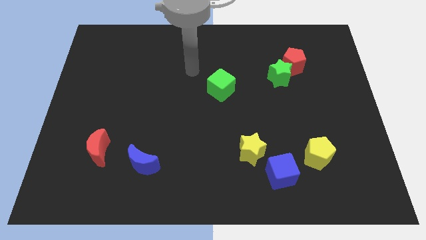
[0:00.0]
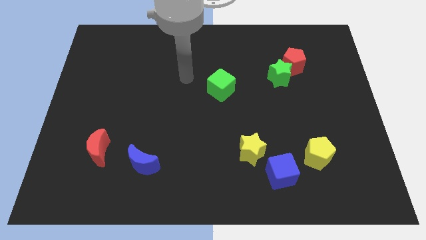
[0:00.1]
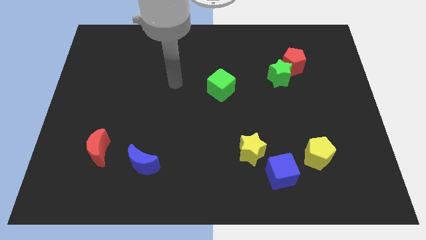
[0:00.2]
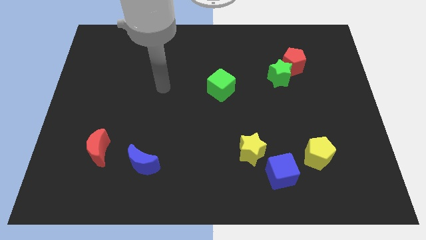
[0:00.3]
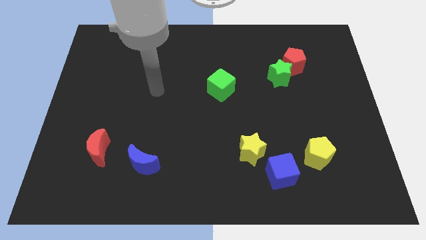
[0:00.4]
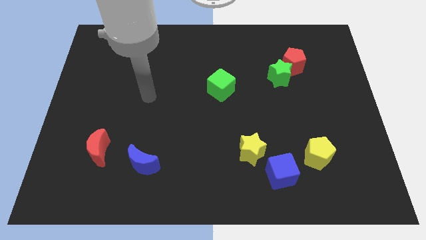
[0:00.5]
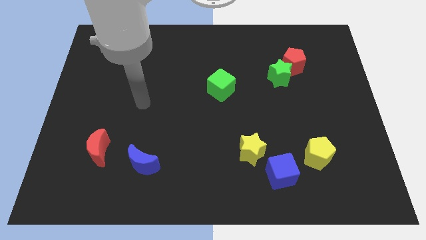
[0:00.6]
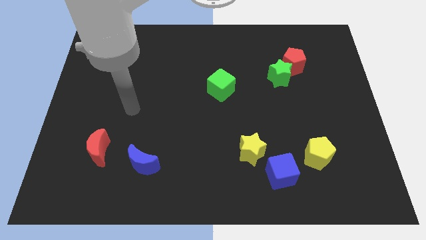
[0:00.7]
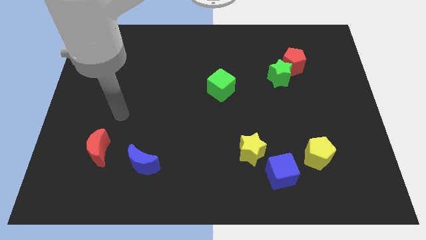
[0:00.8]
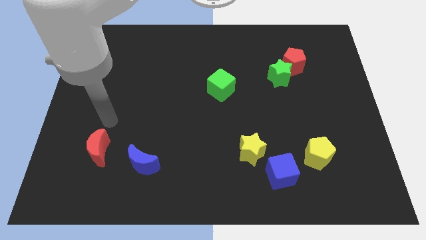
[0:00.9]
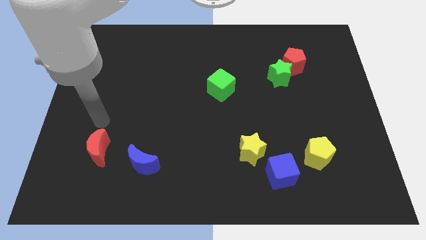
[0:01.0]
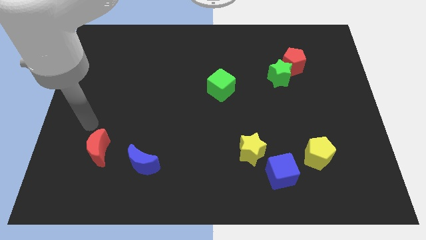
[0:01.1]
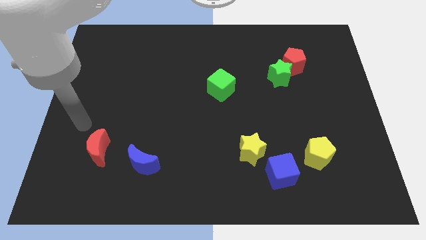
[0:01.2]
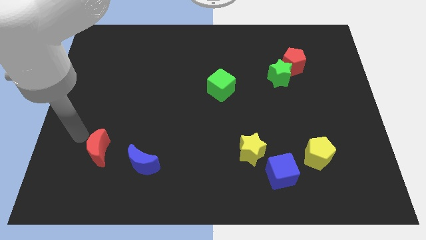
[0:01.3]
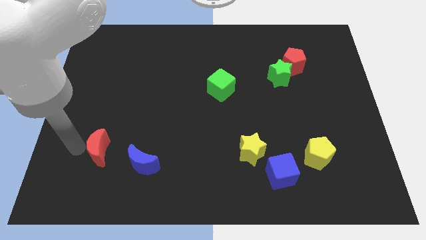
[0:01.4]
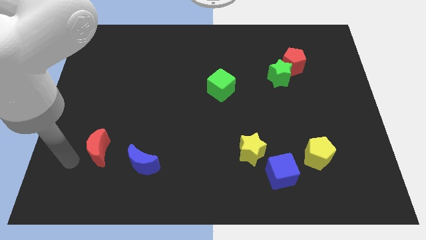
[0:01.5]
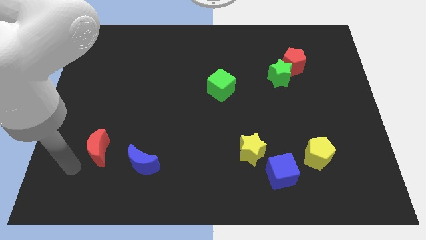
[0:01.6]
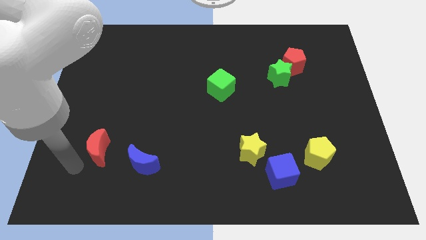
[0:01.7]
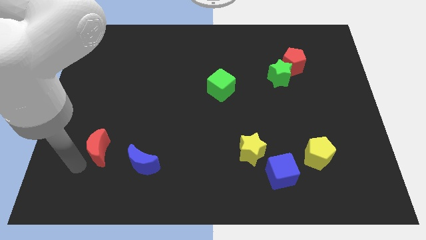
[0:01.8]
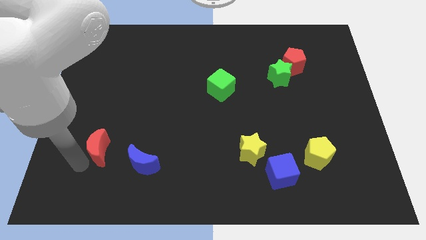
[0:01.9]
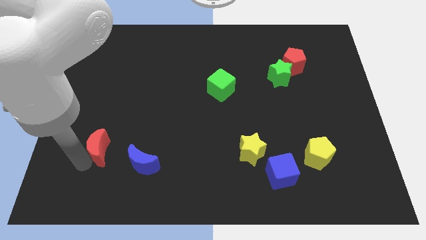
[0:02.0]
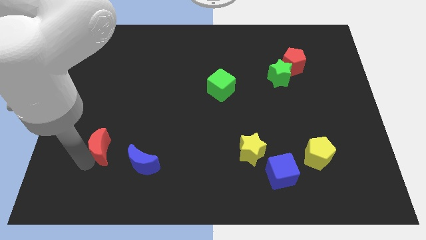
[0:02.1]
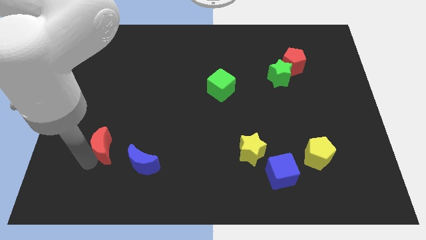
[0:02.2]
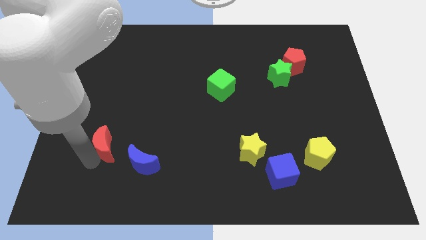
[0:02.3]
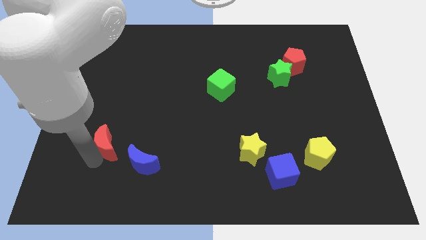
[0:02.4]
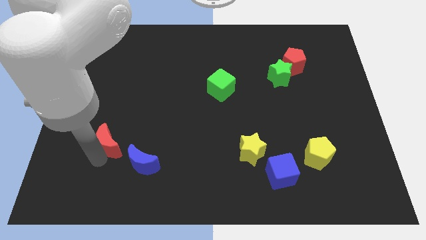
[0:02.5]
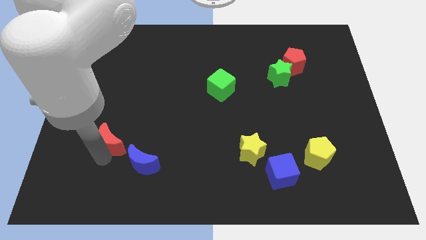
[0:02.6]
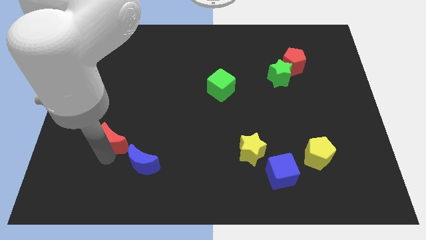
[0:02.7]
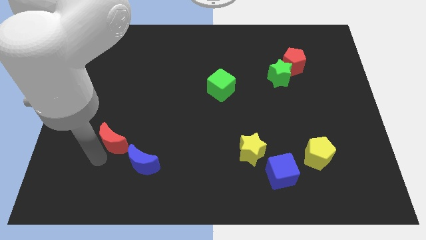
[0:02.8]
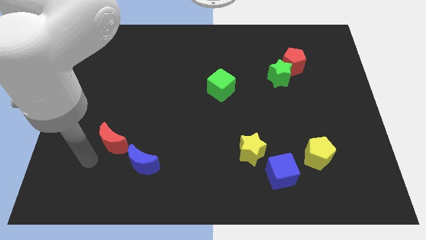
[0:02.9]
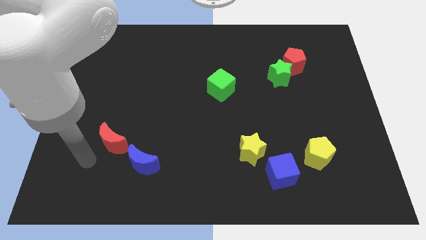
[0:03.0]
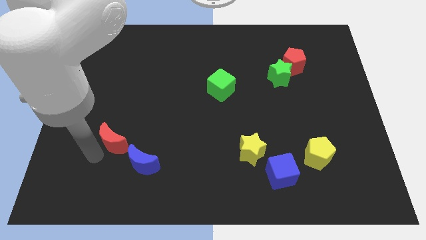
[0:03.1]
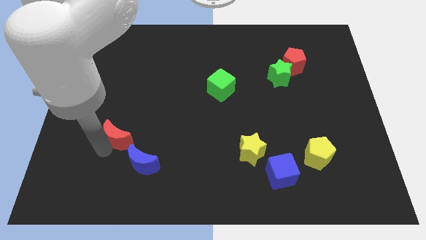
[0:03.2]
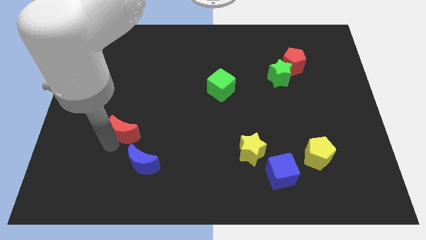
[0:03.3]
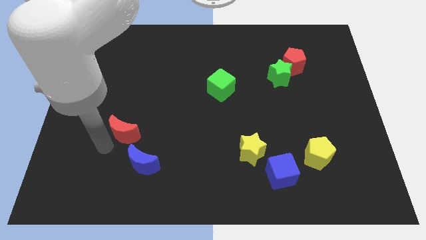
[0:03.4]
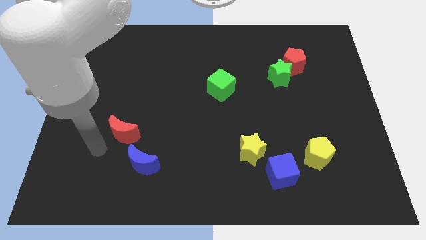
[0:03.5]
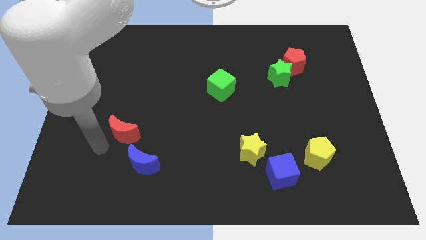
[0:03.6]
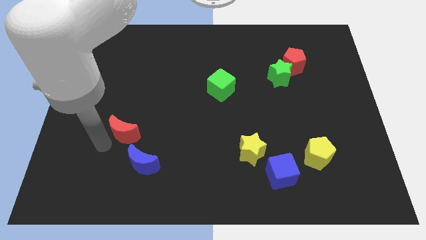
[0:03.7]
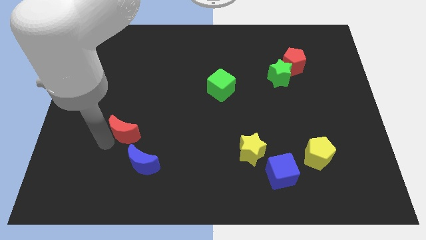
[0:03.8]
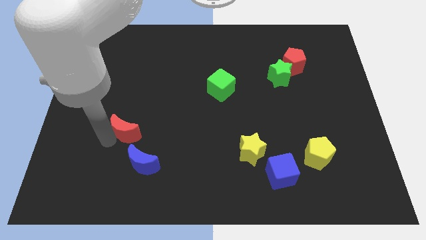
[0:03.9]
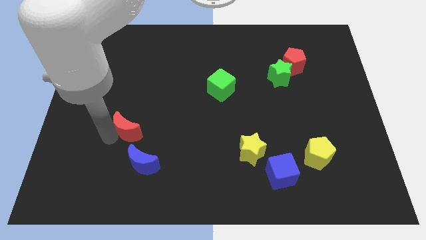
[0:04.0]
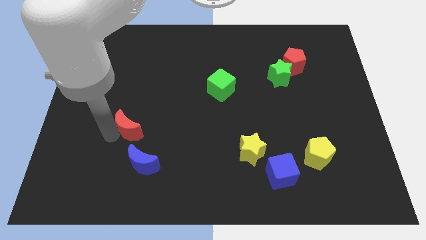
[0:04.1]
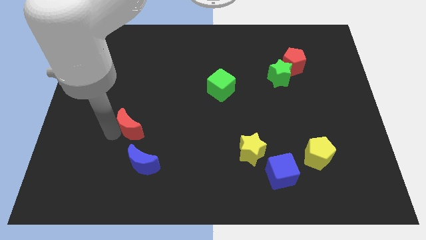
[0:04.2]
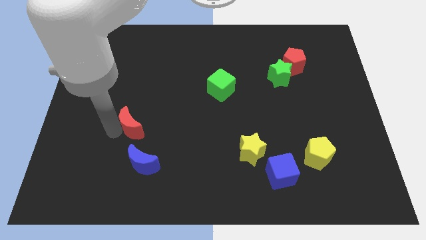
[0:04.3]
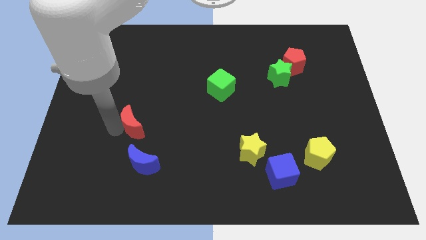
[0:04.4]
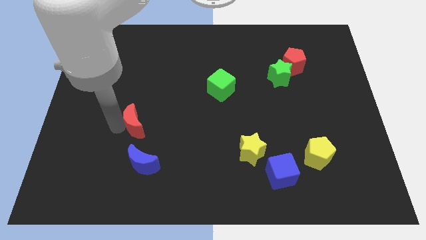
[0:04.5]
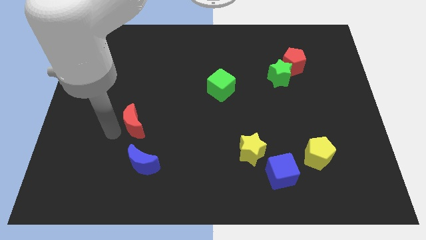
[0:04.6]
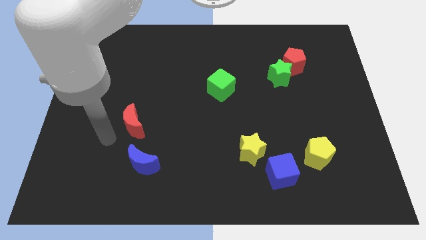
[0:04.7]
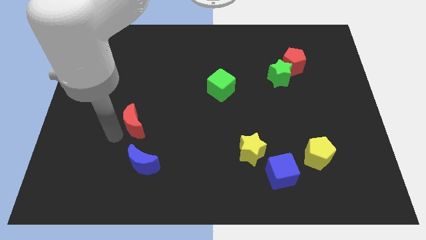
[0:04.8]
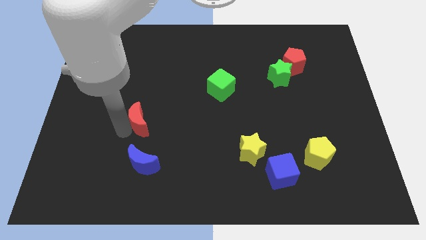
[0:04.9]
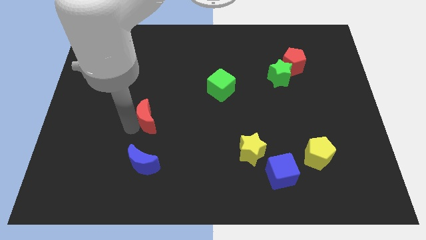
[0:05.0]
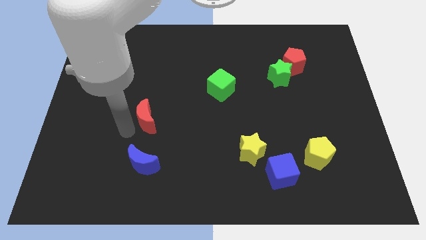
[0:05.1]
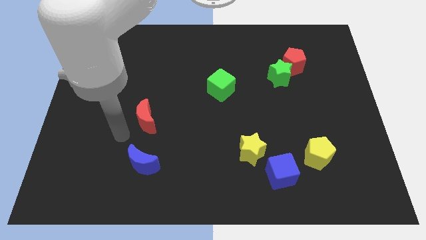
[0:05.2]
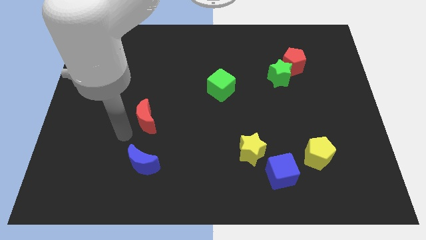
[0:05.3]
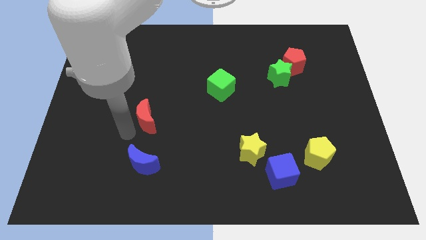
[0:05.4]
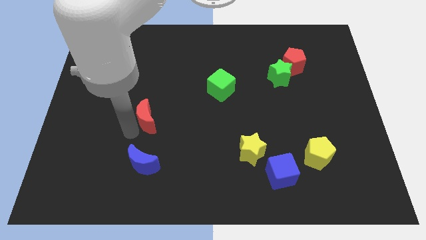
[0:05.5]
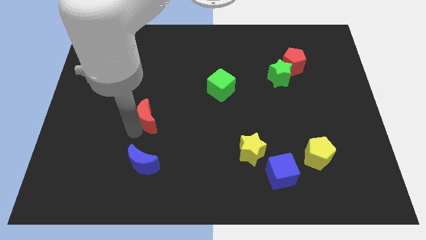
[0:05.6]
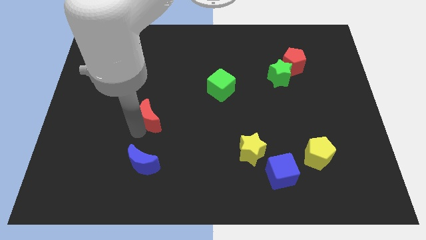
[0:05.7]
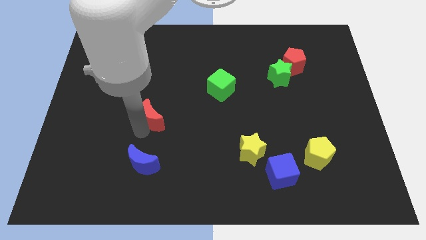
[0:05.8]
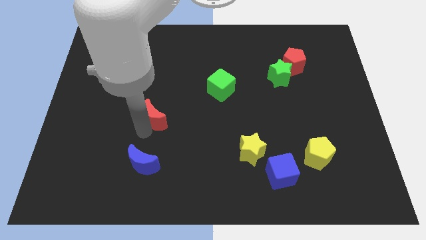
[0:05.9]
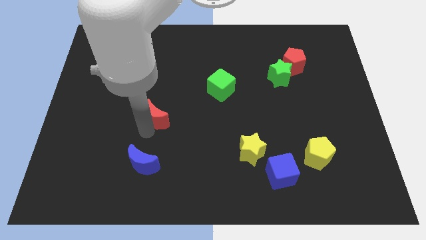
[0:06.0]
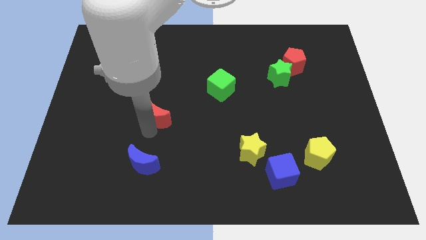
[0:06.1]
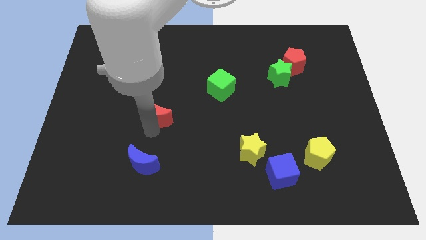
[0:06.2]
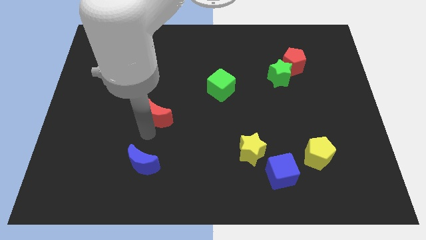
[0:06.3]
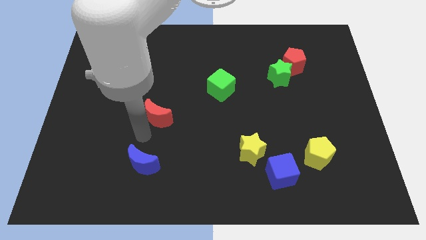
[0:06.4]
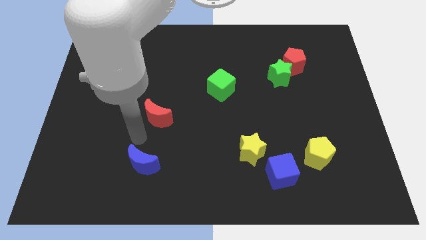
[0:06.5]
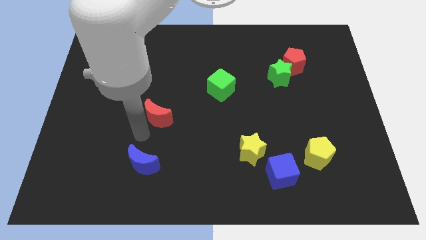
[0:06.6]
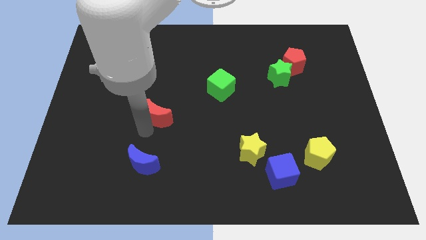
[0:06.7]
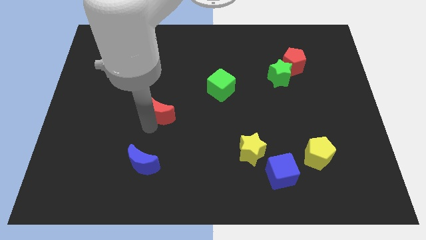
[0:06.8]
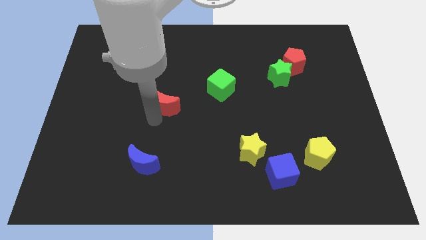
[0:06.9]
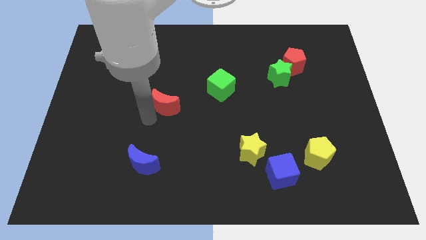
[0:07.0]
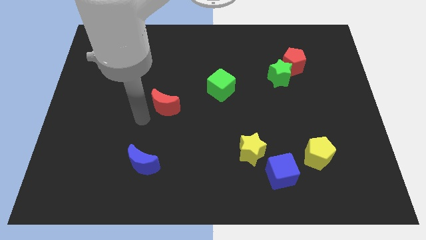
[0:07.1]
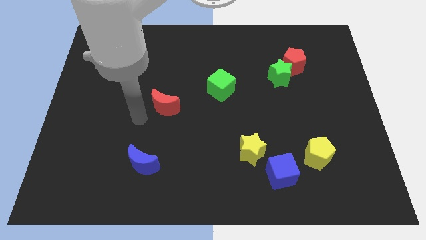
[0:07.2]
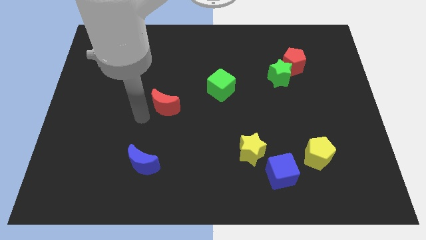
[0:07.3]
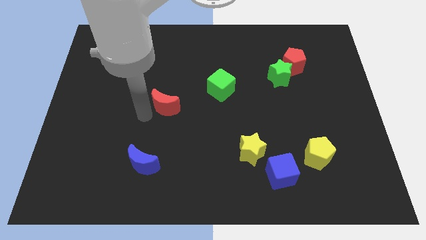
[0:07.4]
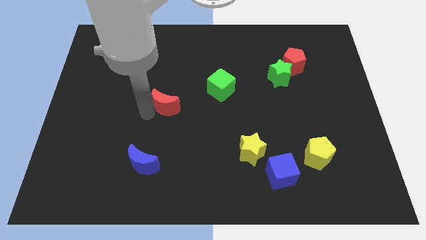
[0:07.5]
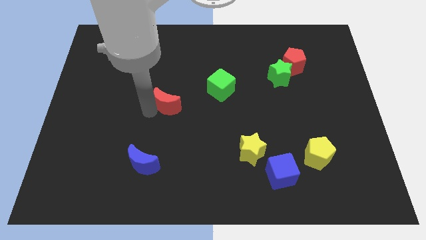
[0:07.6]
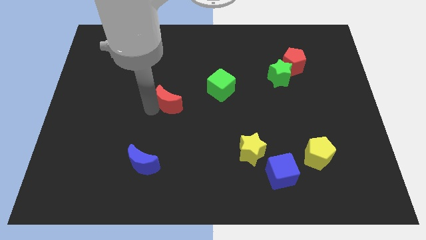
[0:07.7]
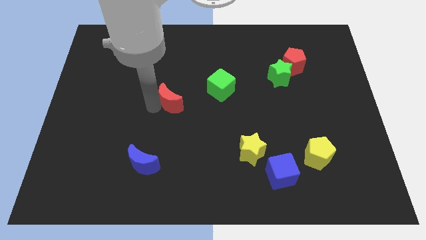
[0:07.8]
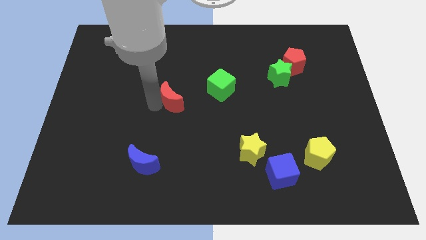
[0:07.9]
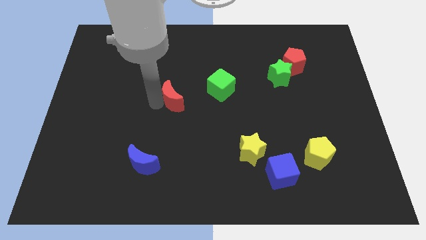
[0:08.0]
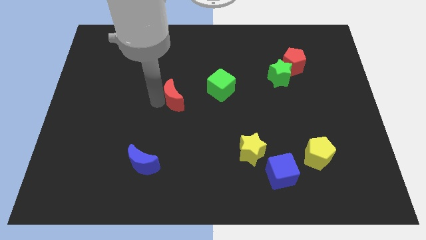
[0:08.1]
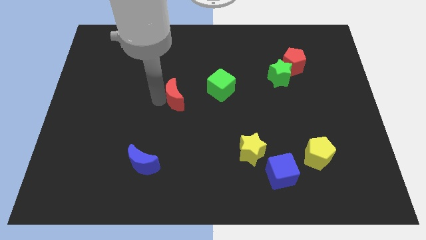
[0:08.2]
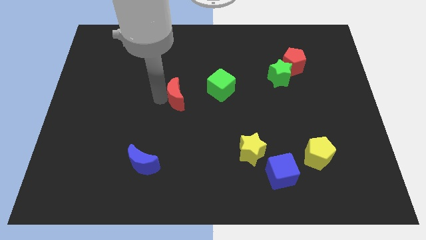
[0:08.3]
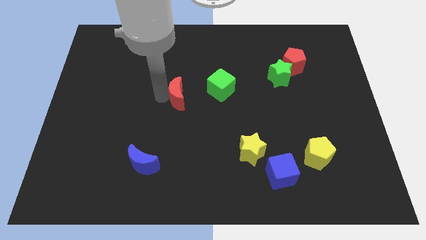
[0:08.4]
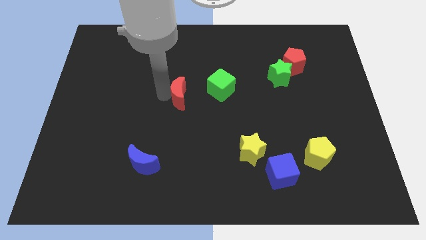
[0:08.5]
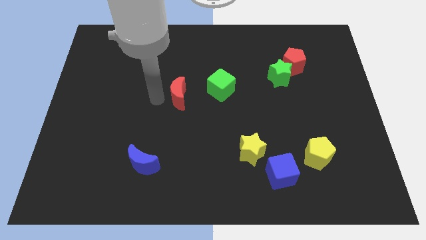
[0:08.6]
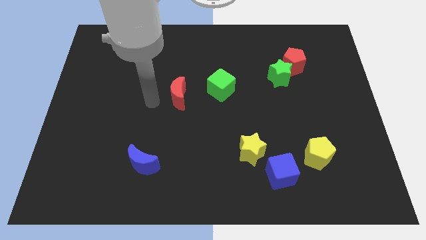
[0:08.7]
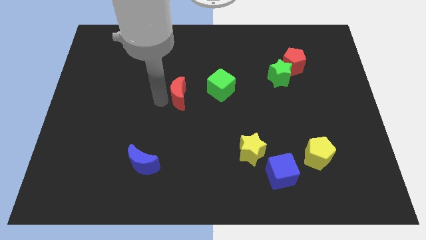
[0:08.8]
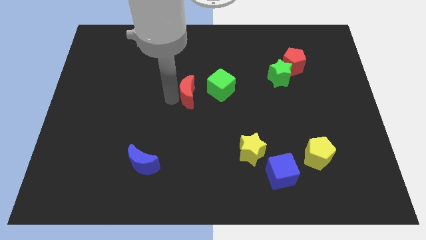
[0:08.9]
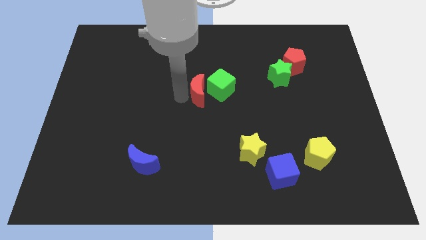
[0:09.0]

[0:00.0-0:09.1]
put the red moon to the green cube
